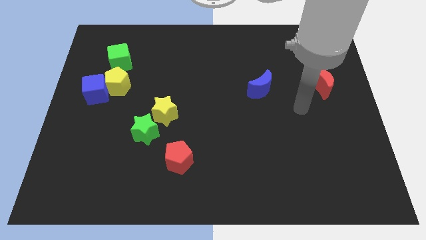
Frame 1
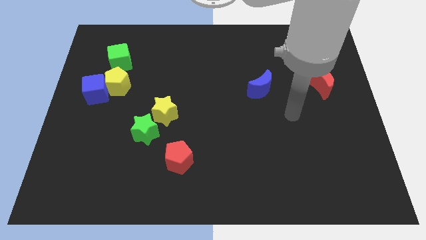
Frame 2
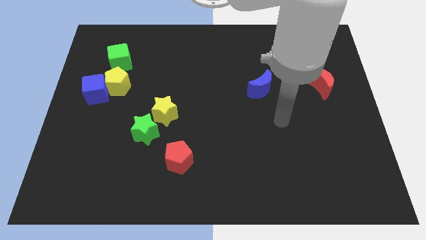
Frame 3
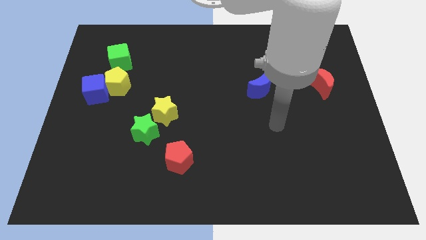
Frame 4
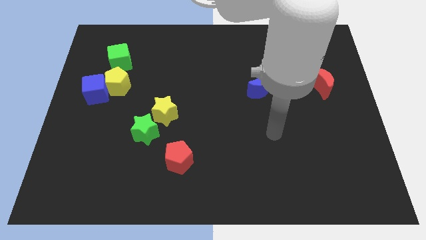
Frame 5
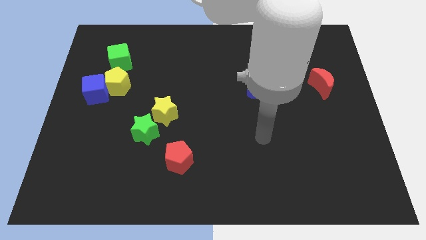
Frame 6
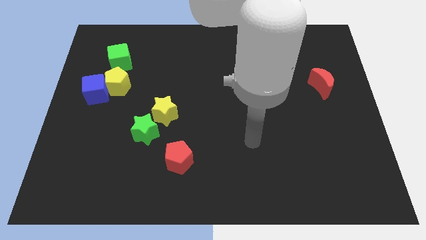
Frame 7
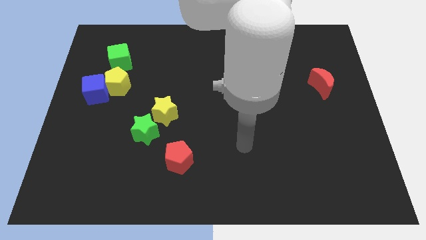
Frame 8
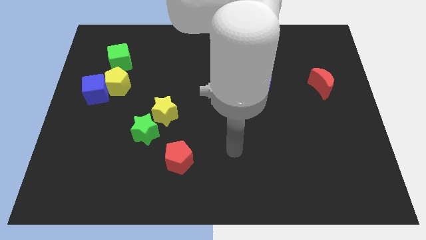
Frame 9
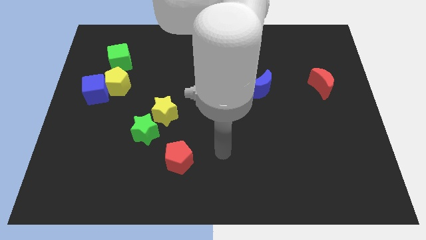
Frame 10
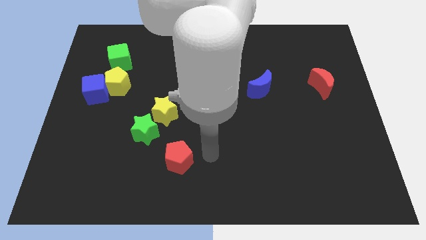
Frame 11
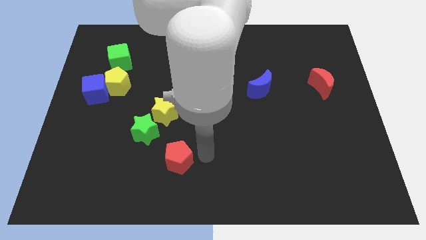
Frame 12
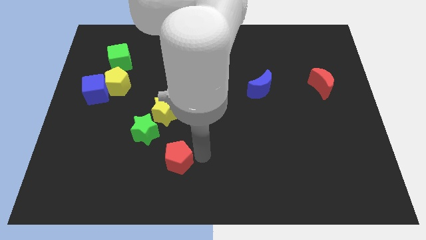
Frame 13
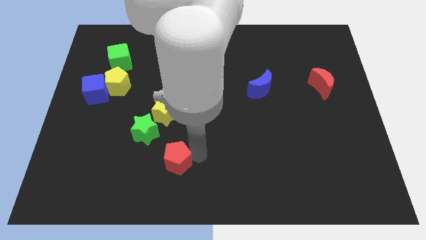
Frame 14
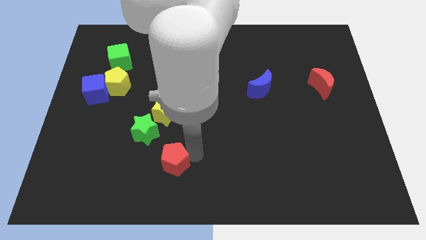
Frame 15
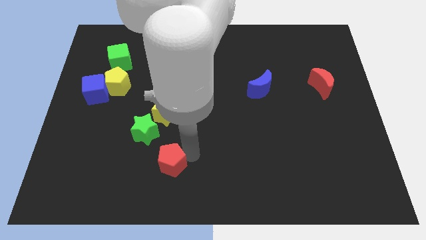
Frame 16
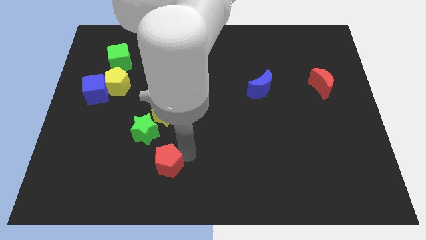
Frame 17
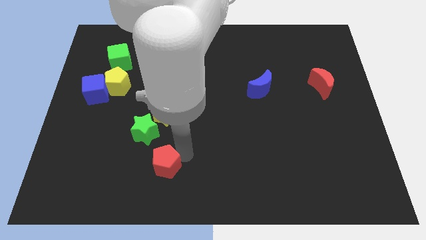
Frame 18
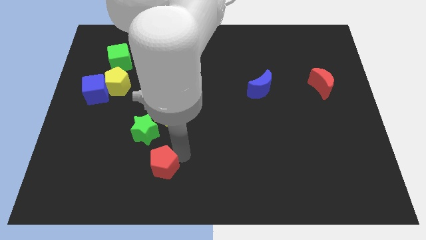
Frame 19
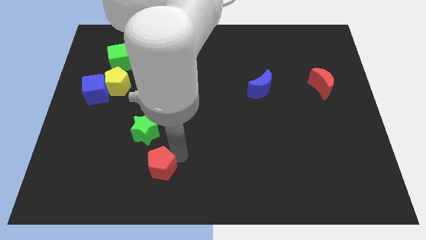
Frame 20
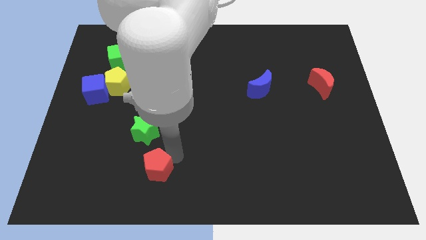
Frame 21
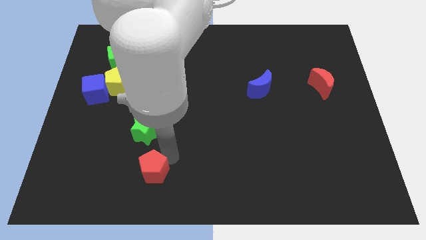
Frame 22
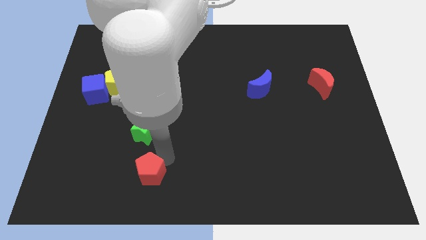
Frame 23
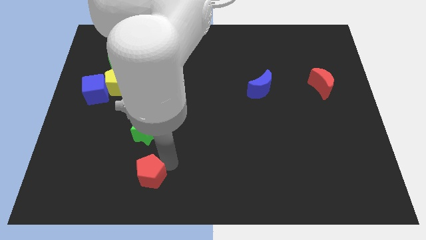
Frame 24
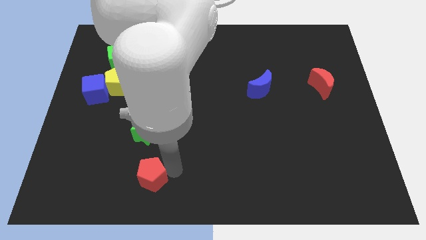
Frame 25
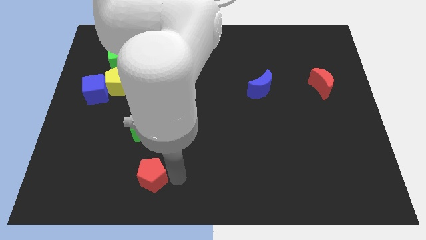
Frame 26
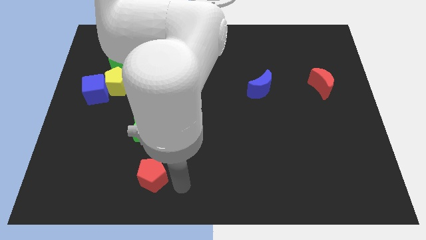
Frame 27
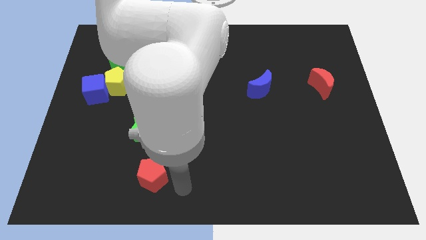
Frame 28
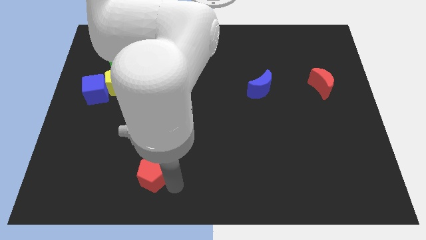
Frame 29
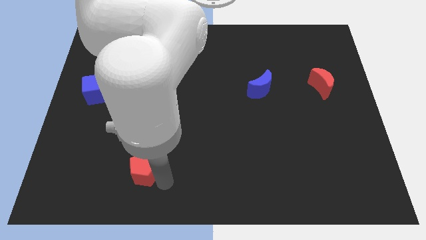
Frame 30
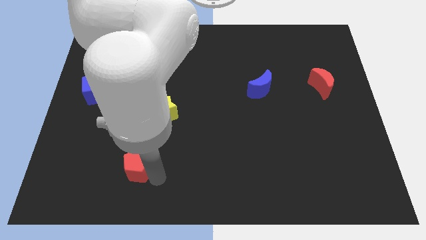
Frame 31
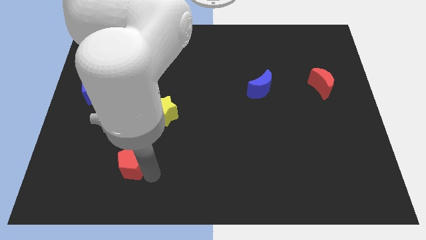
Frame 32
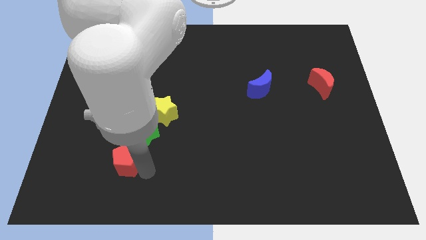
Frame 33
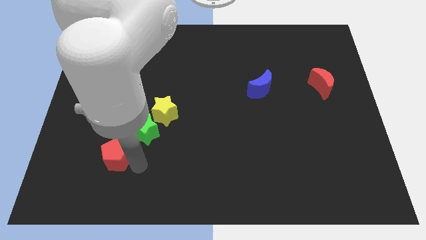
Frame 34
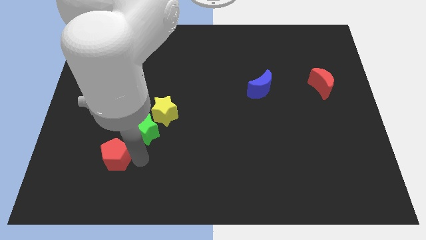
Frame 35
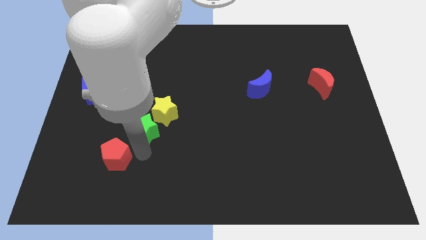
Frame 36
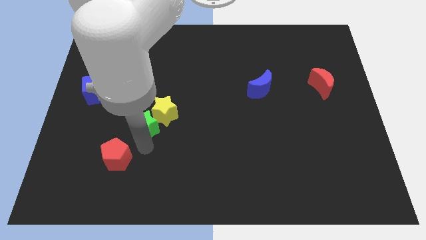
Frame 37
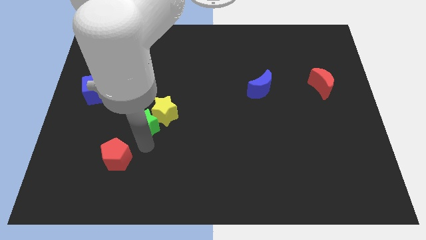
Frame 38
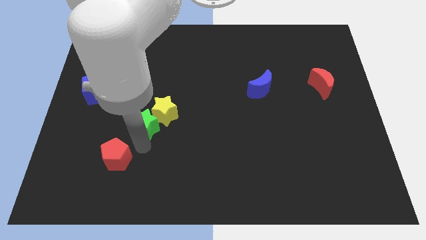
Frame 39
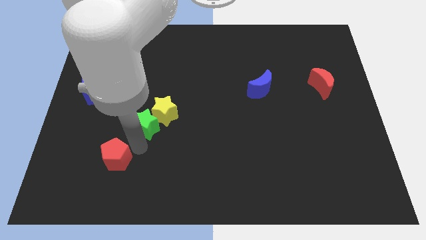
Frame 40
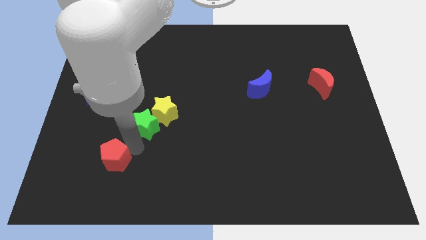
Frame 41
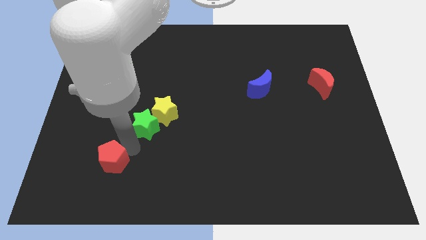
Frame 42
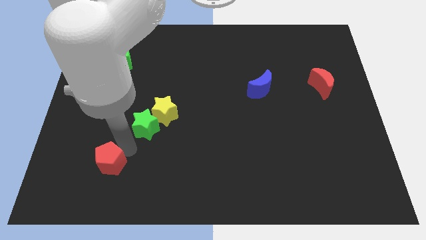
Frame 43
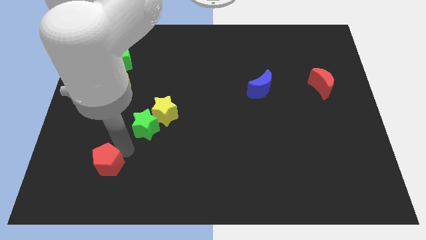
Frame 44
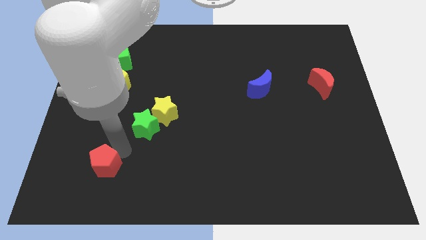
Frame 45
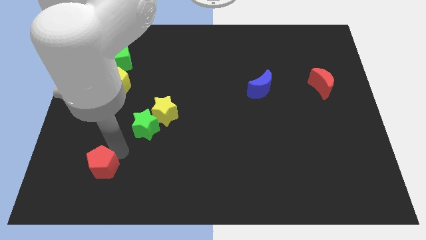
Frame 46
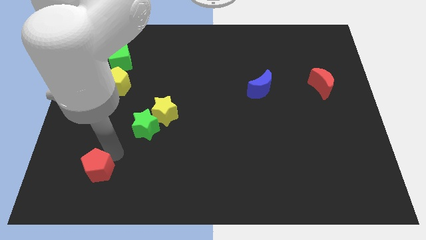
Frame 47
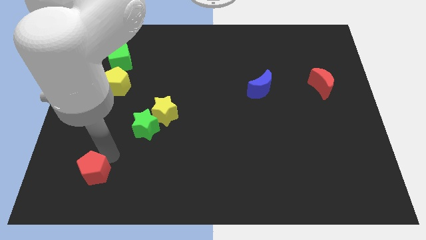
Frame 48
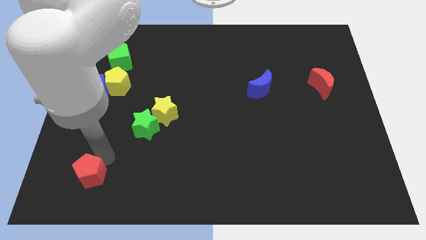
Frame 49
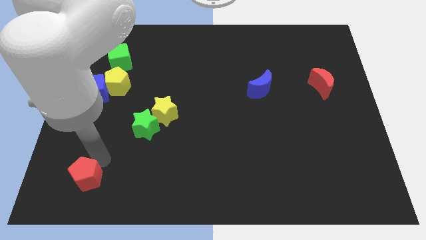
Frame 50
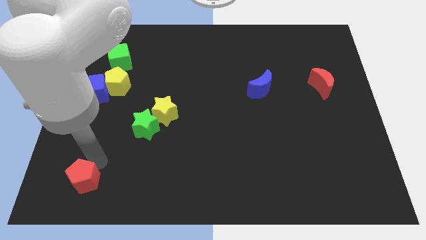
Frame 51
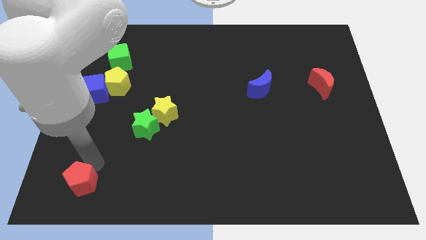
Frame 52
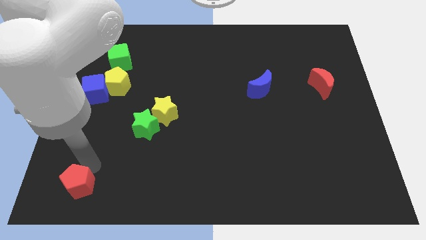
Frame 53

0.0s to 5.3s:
slide the red pentagon to the bottom left of the board

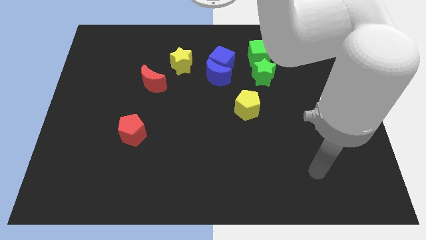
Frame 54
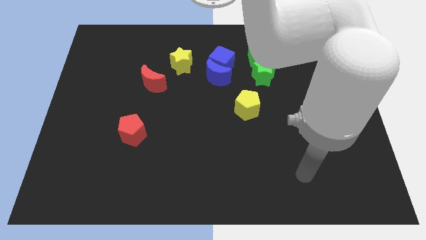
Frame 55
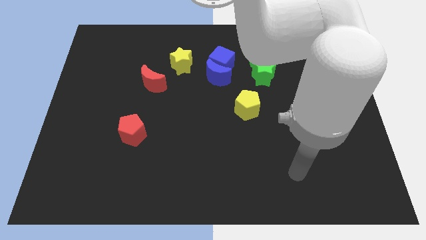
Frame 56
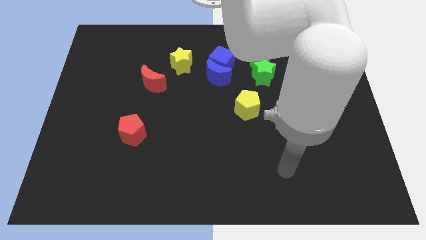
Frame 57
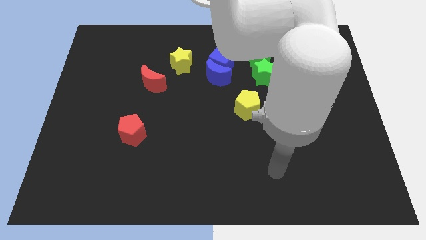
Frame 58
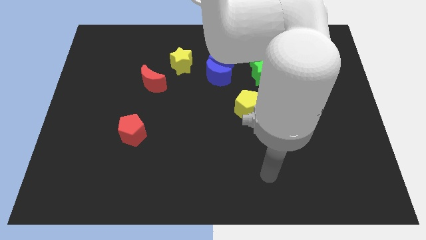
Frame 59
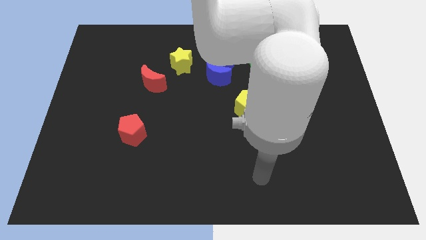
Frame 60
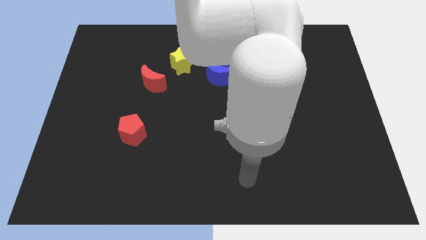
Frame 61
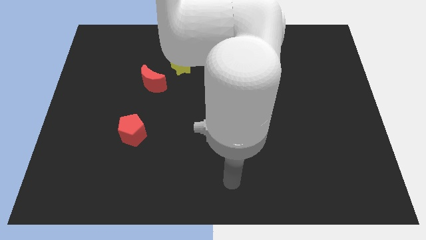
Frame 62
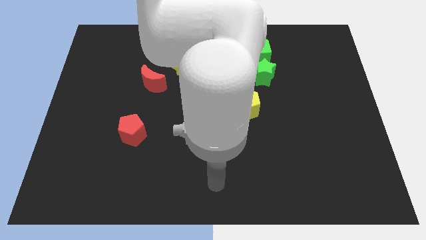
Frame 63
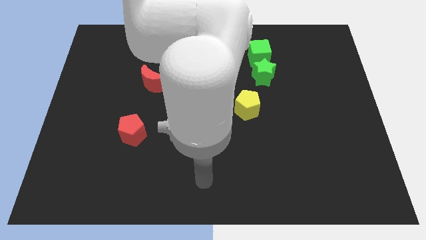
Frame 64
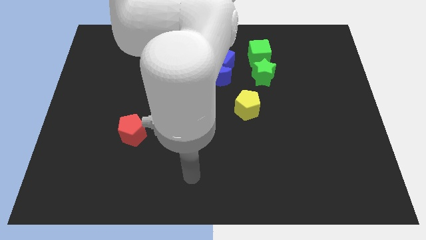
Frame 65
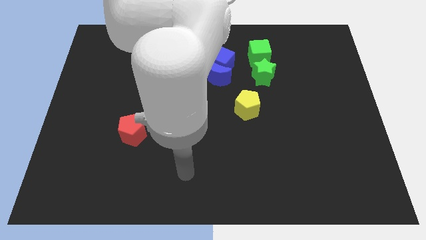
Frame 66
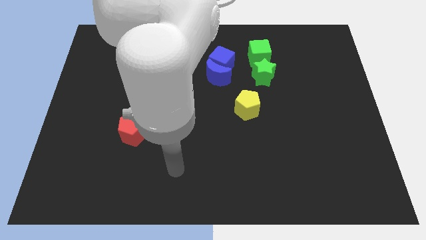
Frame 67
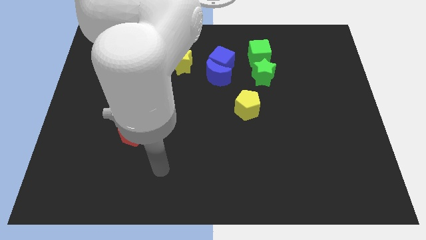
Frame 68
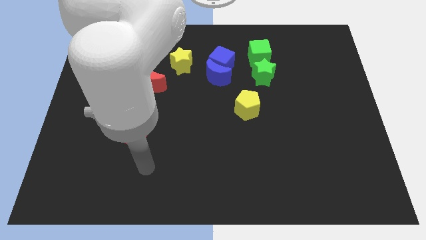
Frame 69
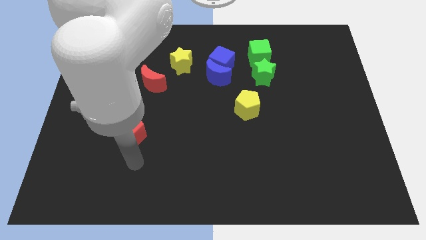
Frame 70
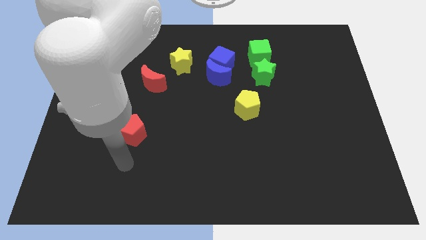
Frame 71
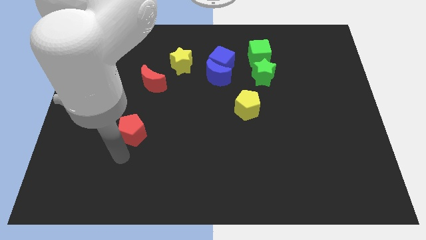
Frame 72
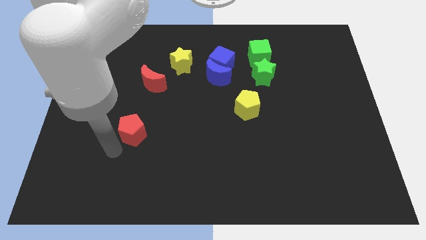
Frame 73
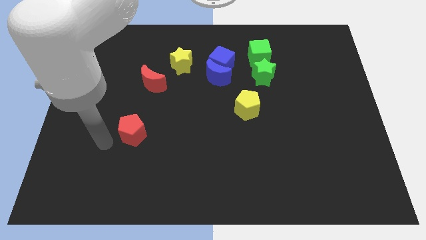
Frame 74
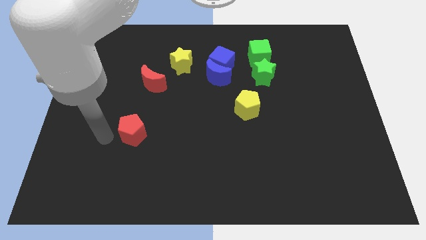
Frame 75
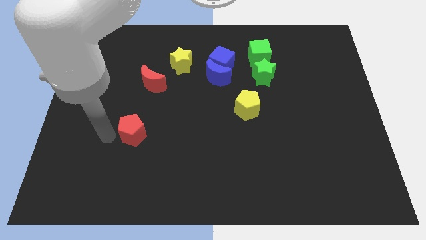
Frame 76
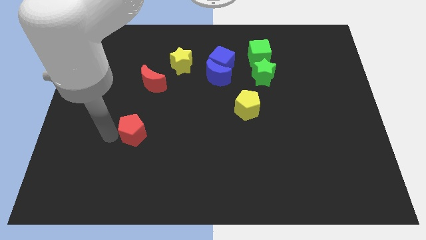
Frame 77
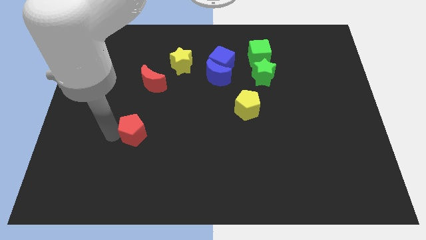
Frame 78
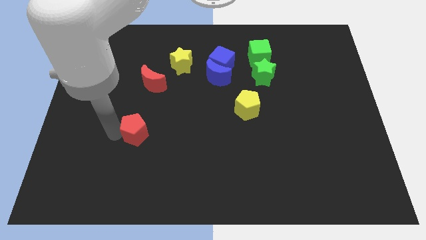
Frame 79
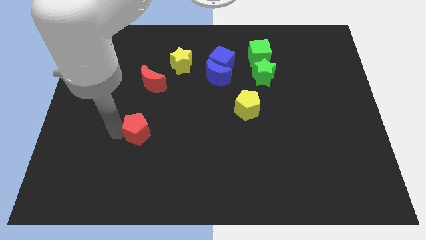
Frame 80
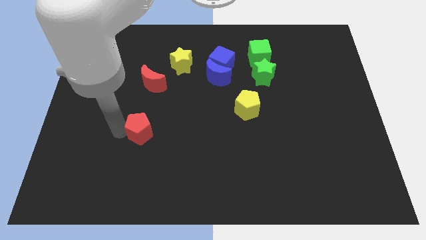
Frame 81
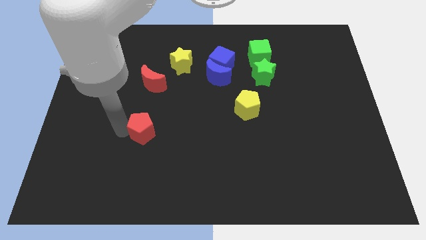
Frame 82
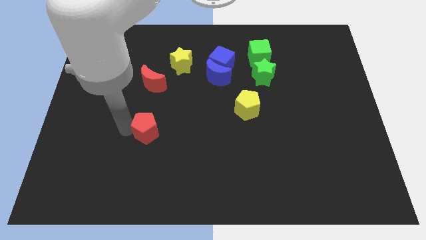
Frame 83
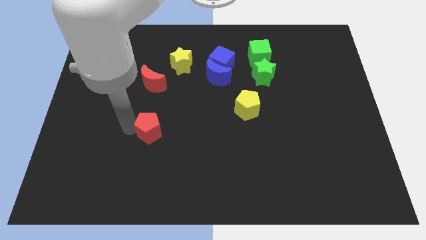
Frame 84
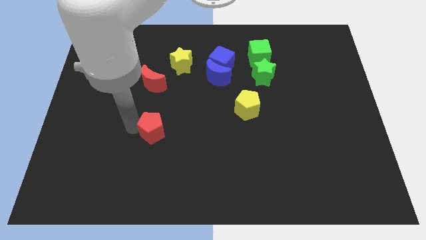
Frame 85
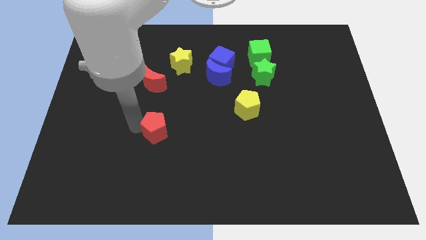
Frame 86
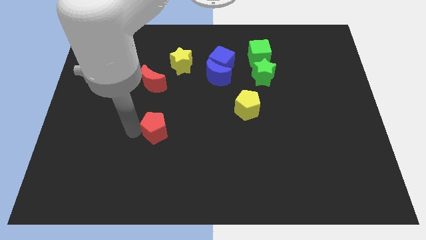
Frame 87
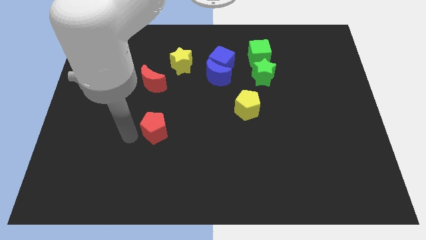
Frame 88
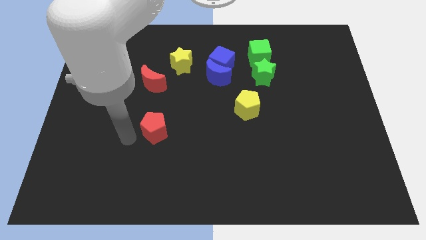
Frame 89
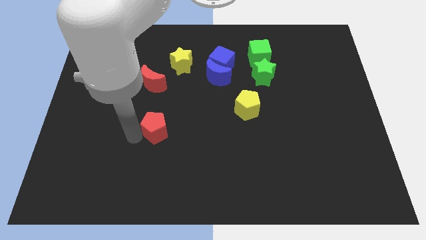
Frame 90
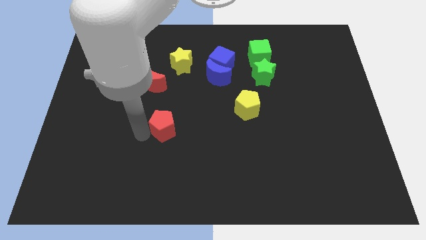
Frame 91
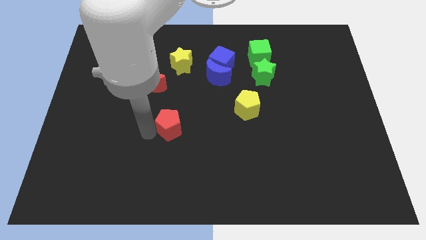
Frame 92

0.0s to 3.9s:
move the red pentagon to the center
